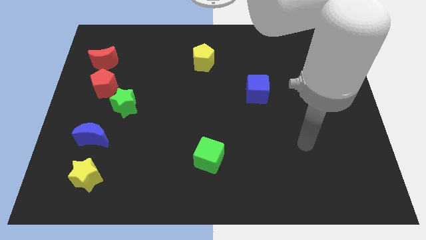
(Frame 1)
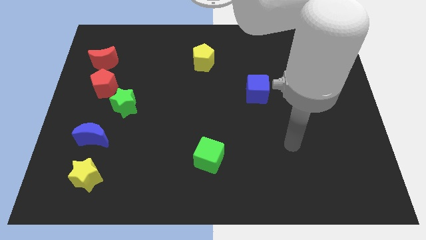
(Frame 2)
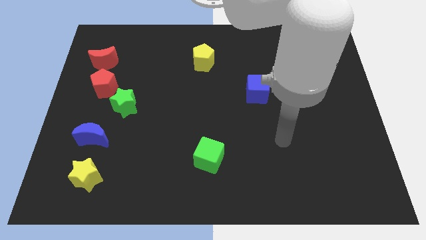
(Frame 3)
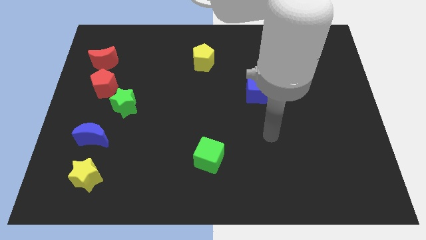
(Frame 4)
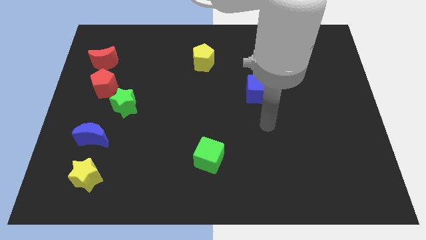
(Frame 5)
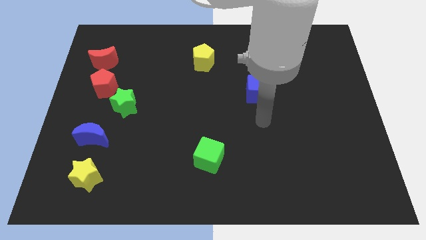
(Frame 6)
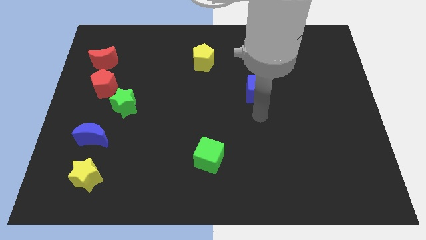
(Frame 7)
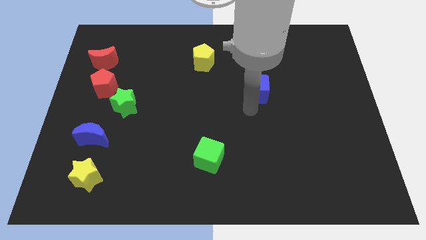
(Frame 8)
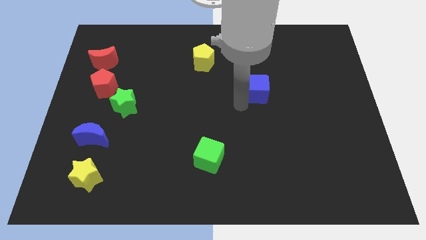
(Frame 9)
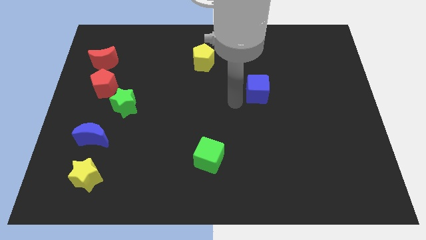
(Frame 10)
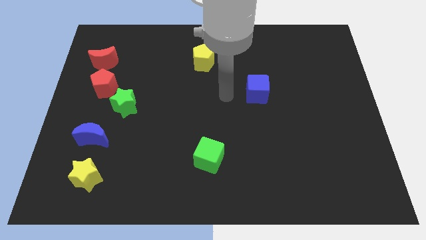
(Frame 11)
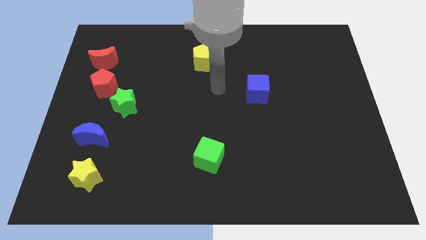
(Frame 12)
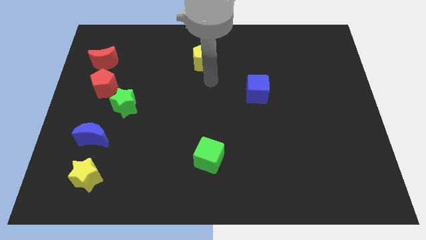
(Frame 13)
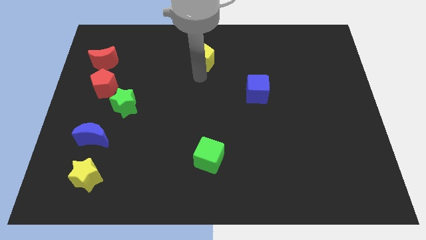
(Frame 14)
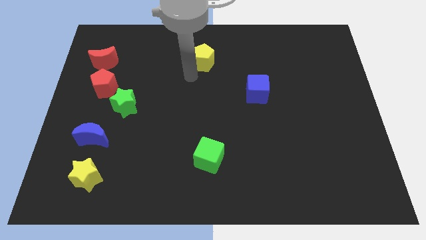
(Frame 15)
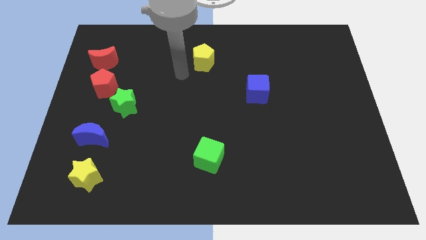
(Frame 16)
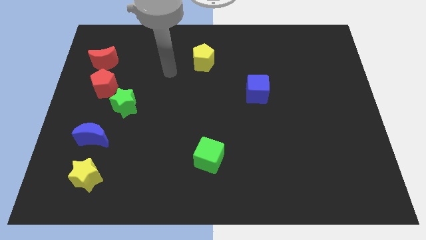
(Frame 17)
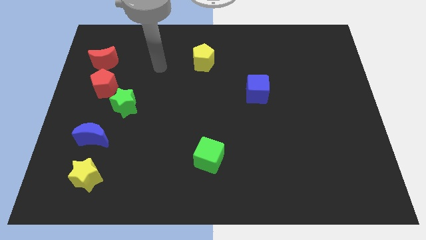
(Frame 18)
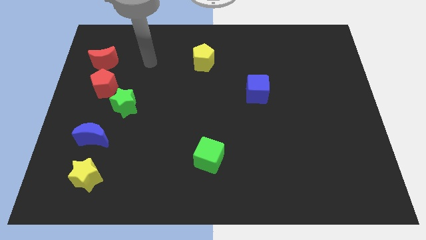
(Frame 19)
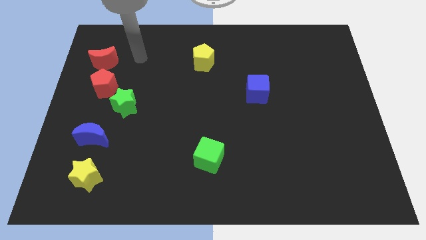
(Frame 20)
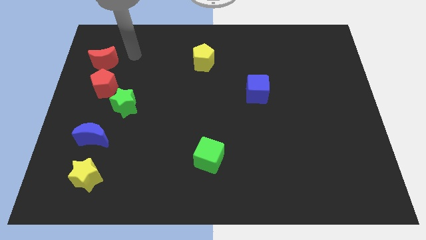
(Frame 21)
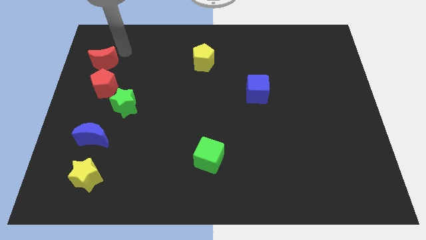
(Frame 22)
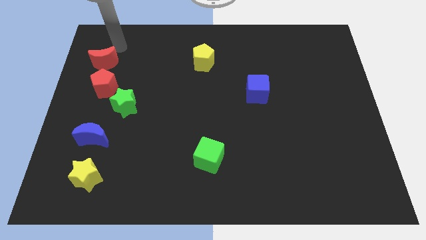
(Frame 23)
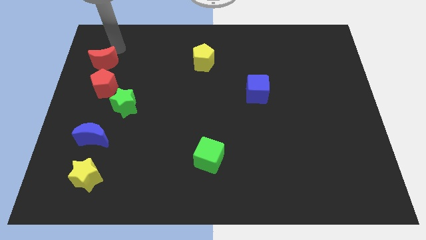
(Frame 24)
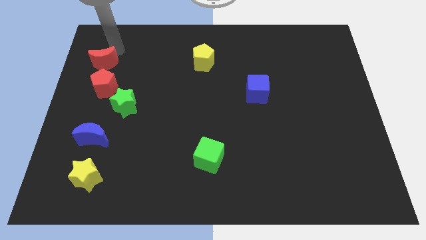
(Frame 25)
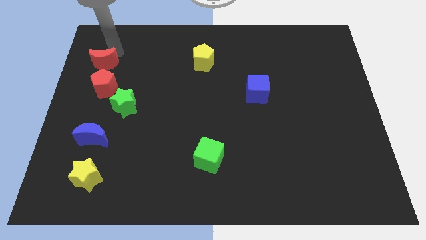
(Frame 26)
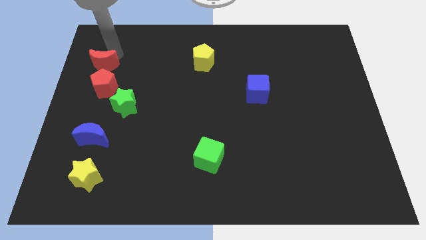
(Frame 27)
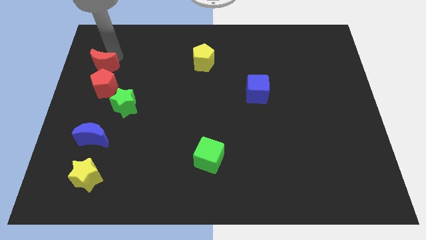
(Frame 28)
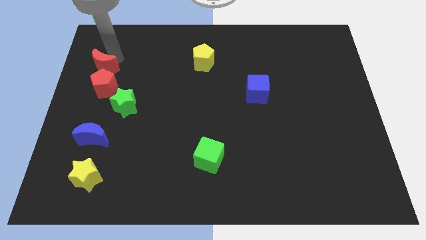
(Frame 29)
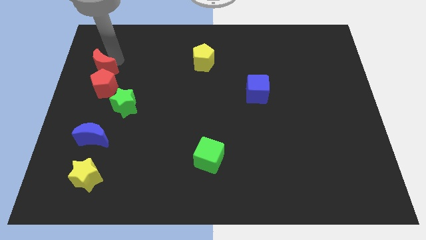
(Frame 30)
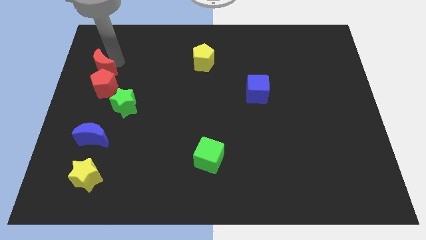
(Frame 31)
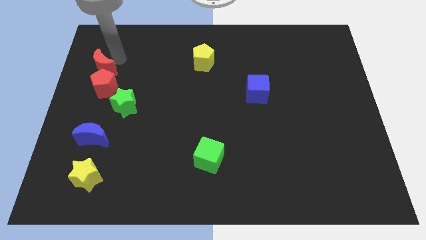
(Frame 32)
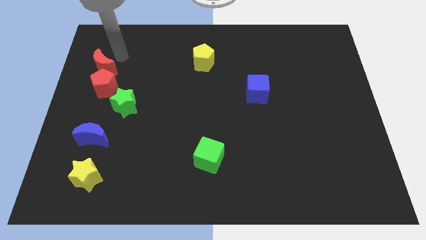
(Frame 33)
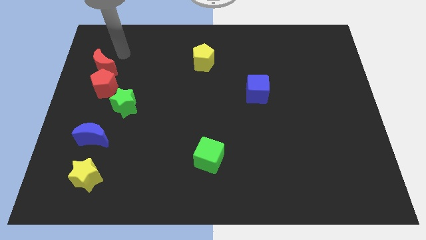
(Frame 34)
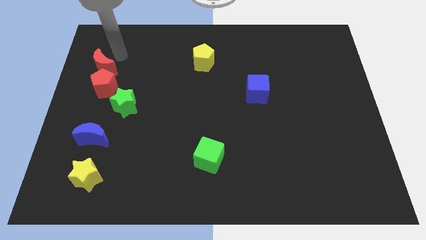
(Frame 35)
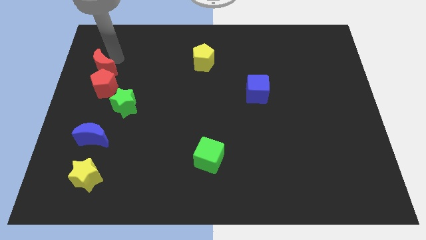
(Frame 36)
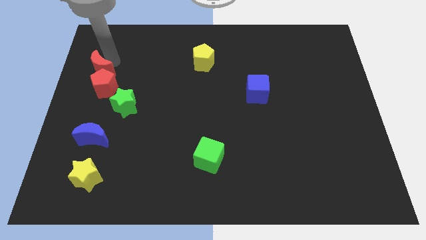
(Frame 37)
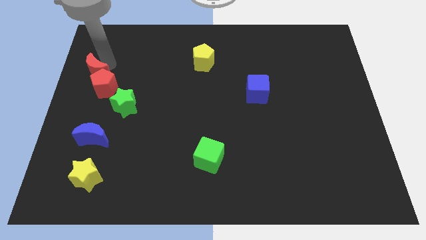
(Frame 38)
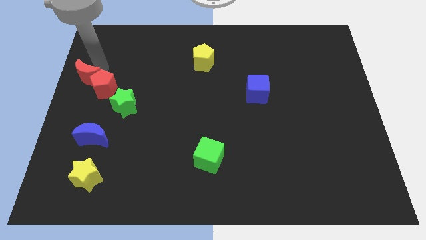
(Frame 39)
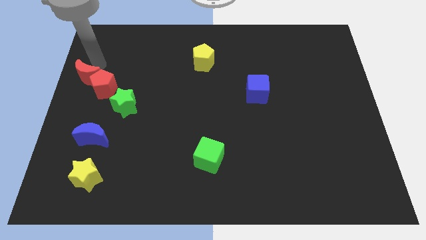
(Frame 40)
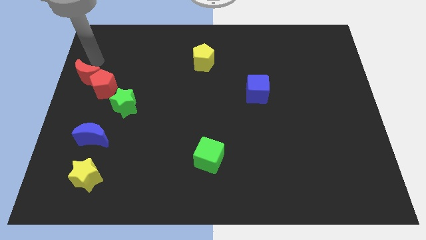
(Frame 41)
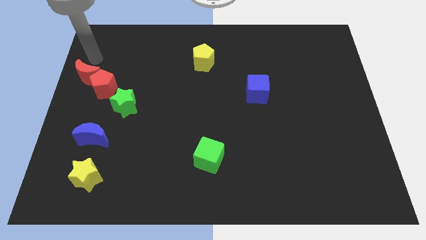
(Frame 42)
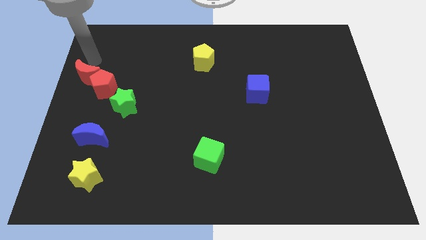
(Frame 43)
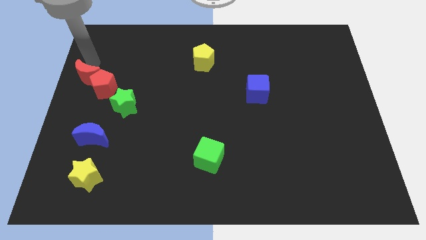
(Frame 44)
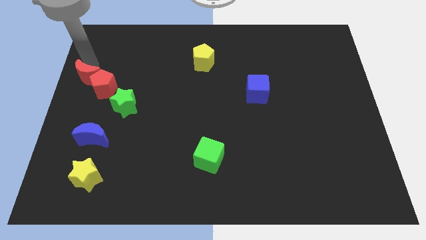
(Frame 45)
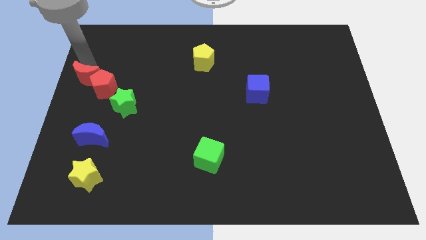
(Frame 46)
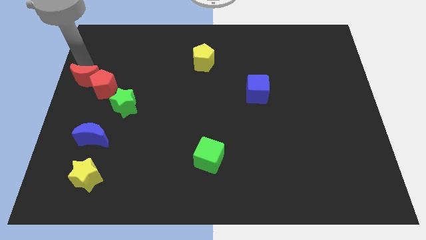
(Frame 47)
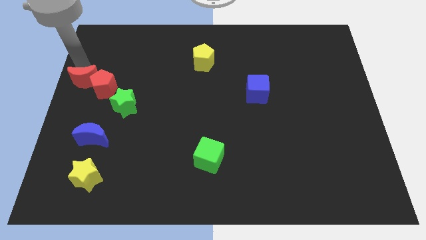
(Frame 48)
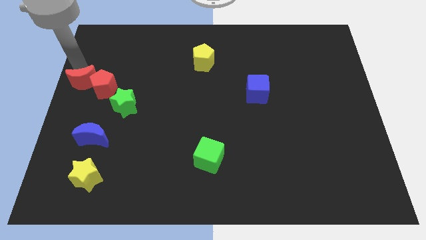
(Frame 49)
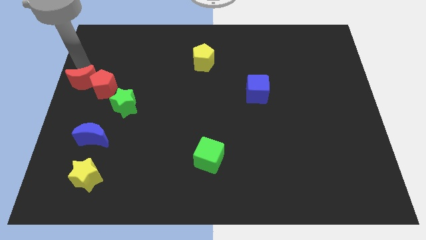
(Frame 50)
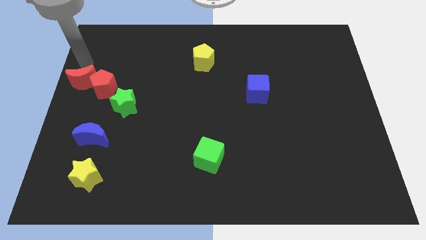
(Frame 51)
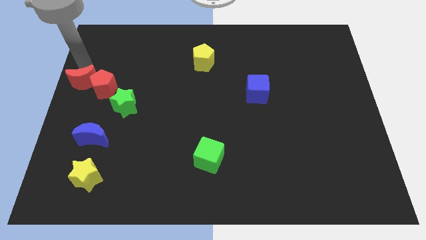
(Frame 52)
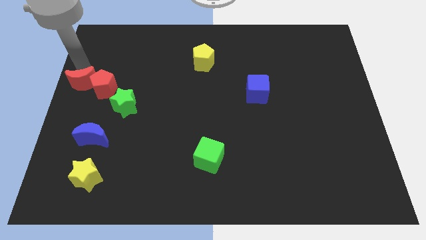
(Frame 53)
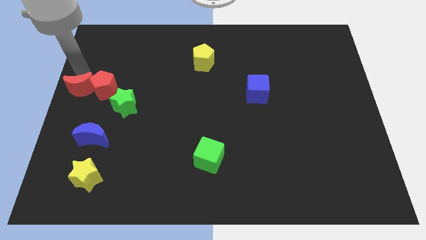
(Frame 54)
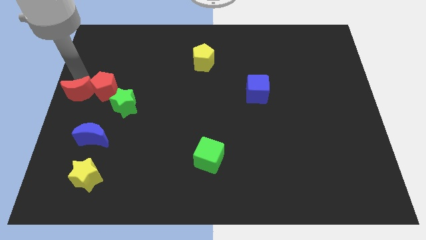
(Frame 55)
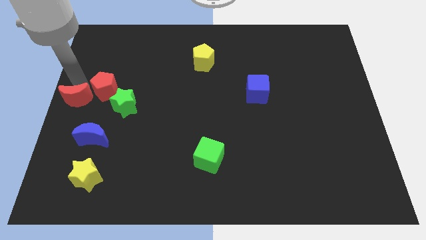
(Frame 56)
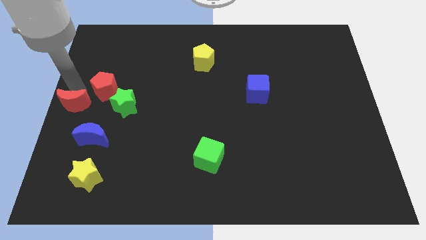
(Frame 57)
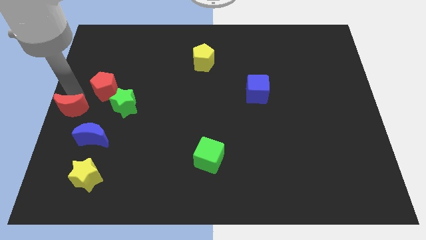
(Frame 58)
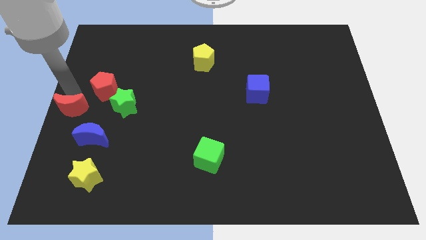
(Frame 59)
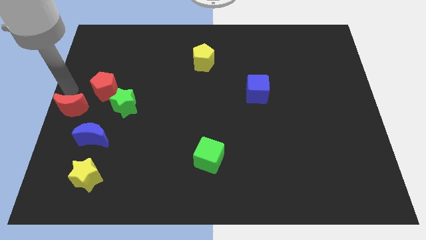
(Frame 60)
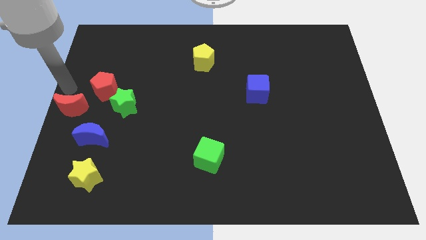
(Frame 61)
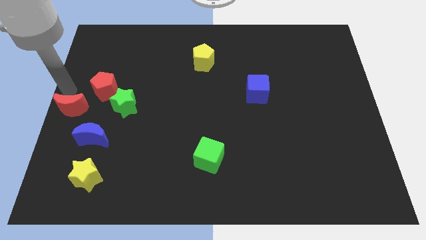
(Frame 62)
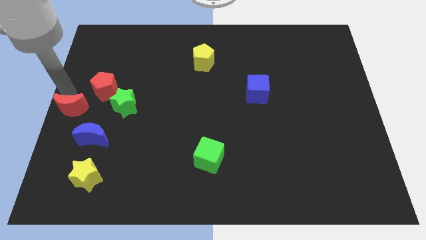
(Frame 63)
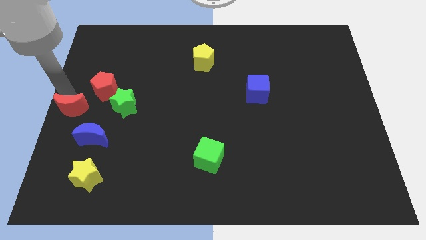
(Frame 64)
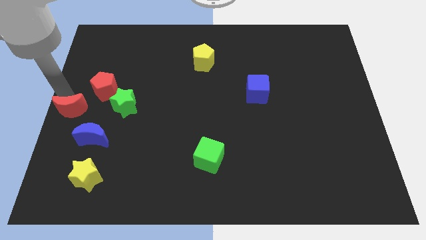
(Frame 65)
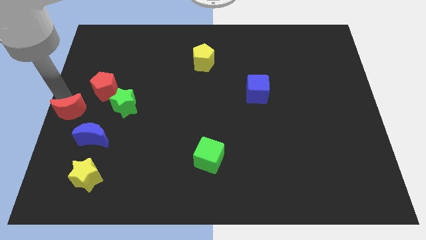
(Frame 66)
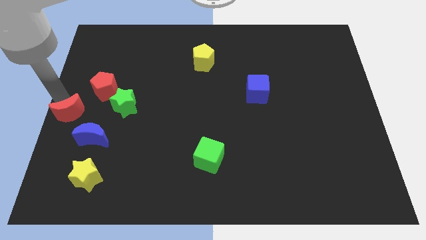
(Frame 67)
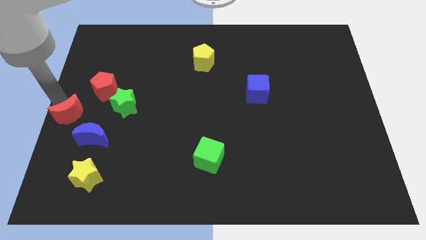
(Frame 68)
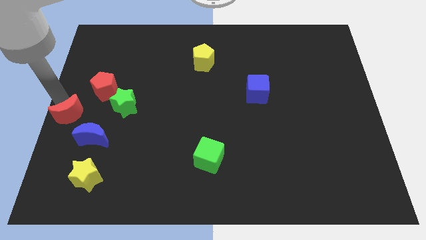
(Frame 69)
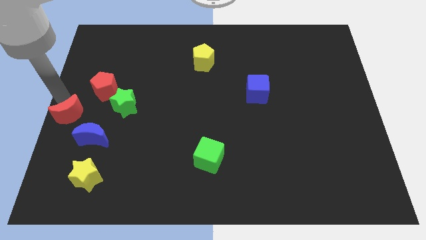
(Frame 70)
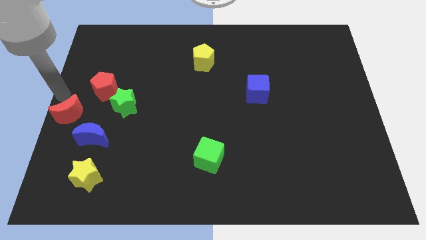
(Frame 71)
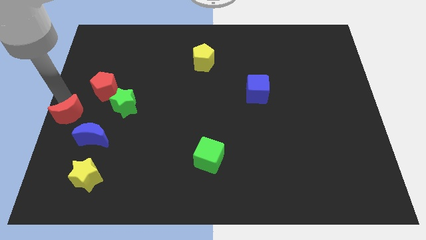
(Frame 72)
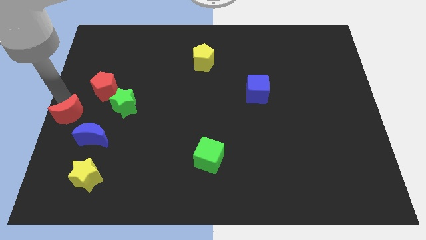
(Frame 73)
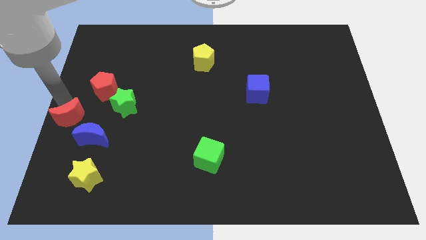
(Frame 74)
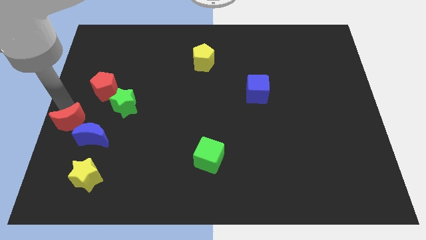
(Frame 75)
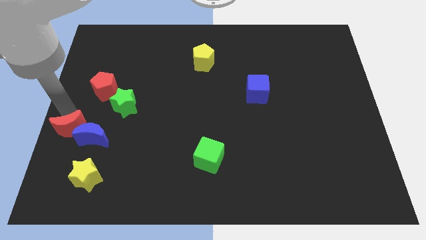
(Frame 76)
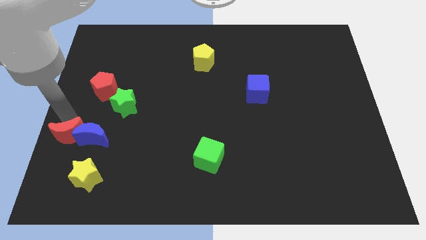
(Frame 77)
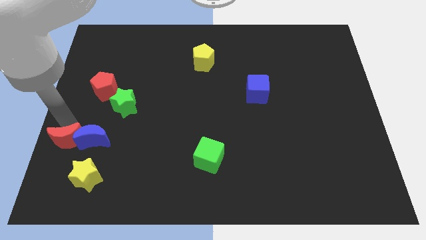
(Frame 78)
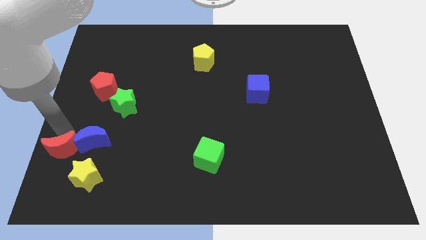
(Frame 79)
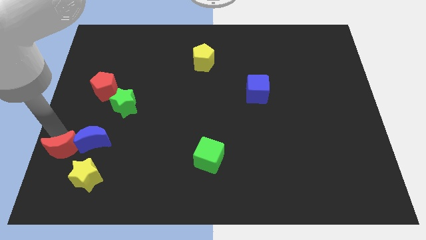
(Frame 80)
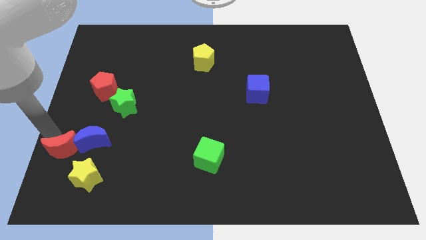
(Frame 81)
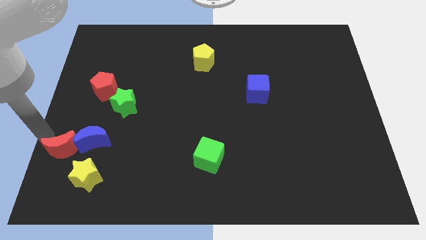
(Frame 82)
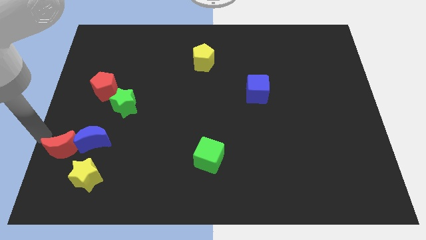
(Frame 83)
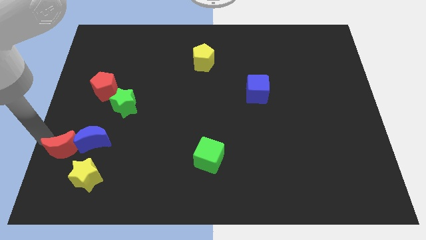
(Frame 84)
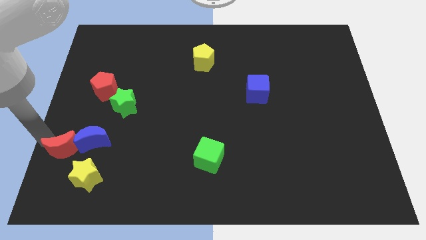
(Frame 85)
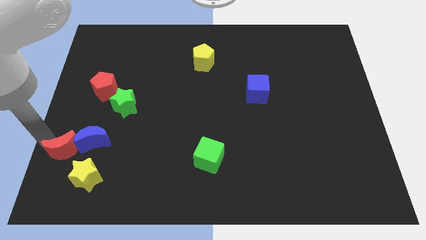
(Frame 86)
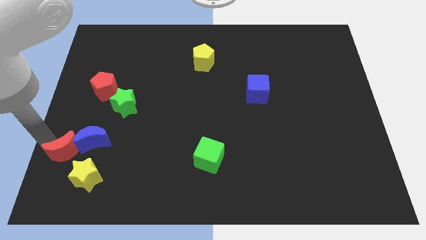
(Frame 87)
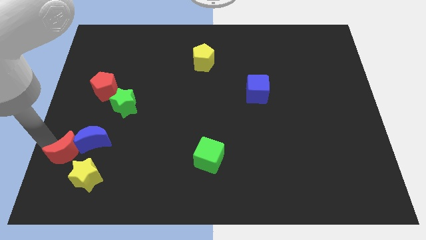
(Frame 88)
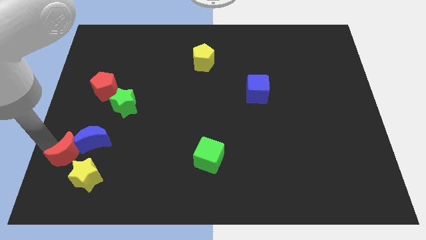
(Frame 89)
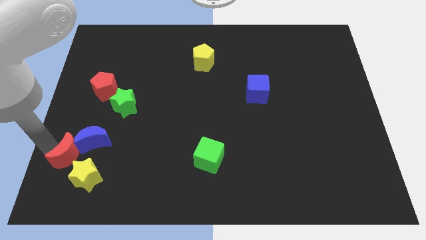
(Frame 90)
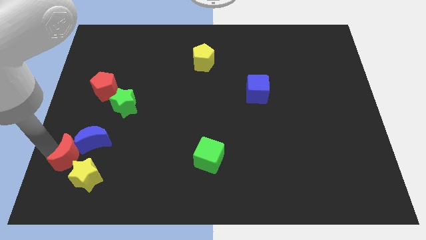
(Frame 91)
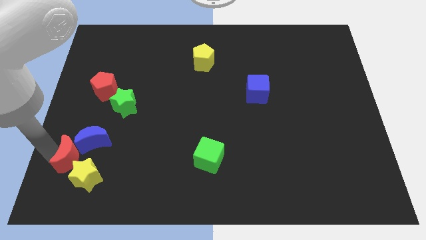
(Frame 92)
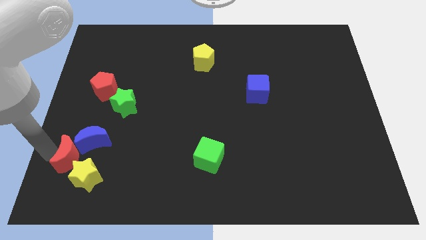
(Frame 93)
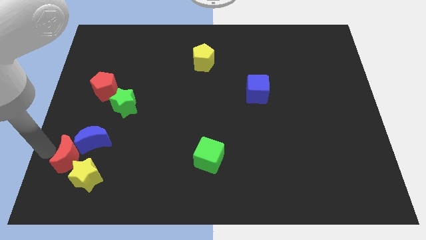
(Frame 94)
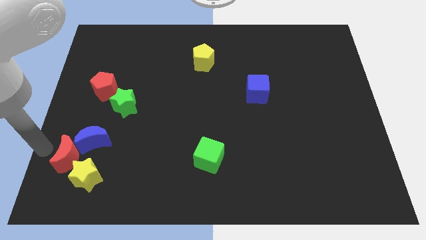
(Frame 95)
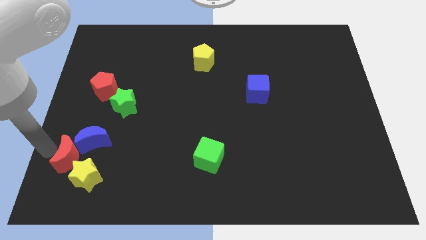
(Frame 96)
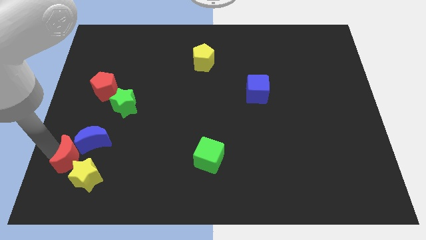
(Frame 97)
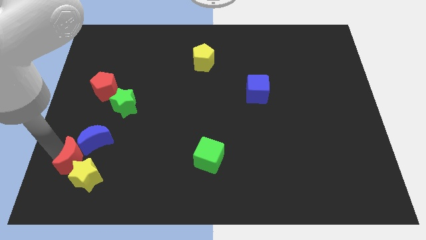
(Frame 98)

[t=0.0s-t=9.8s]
move the red moon towards the yellow star
